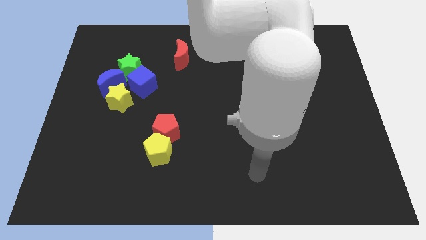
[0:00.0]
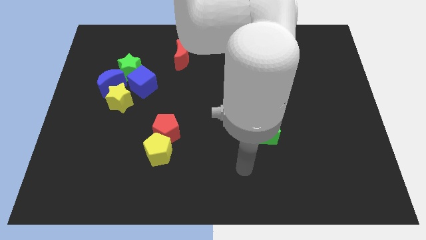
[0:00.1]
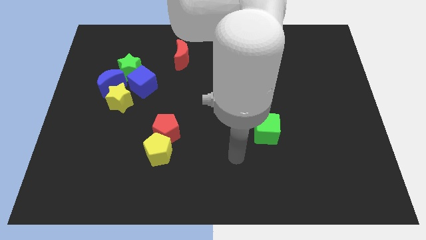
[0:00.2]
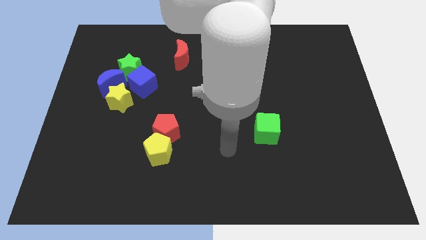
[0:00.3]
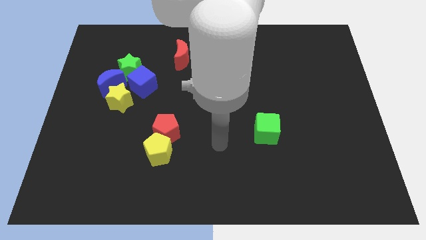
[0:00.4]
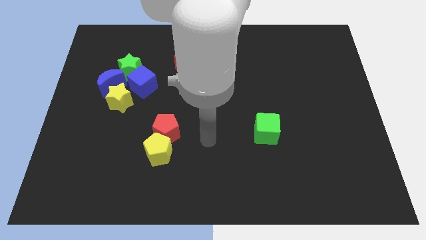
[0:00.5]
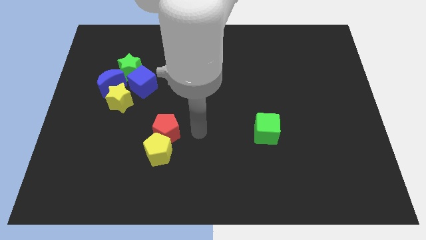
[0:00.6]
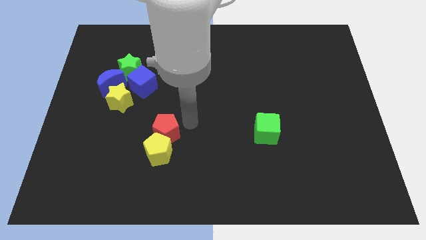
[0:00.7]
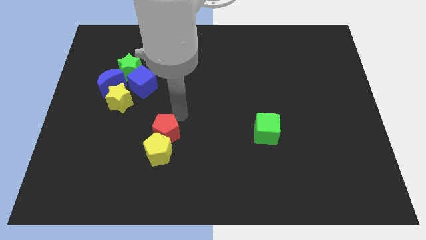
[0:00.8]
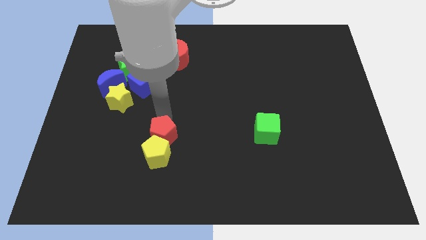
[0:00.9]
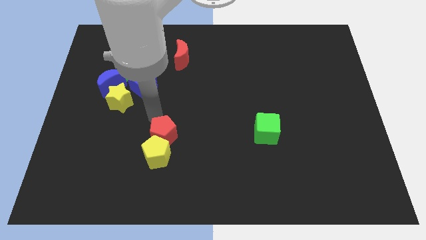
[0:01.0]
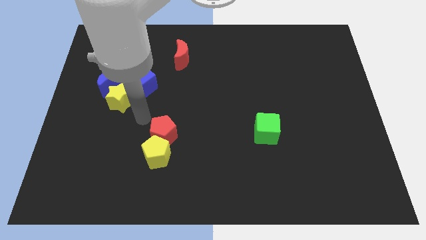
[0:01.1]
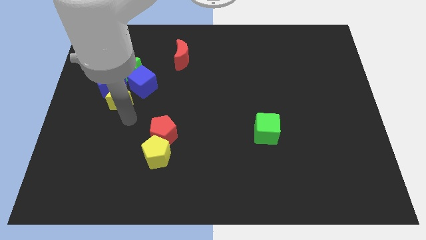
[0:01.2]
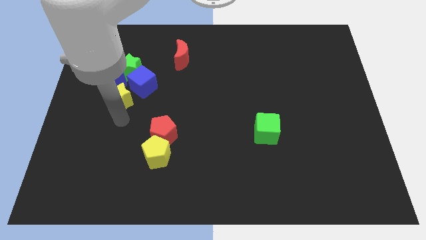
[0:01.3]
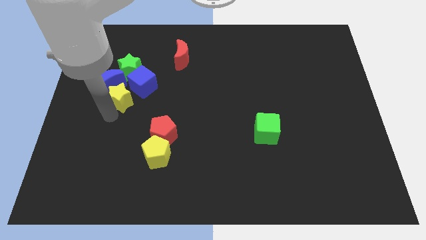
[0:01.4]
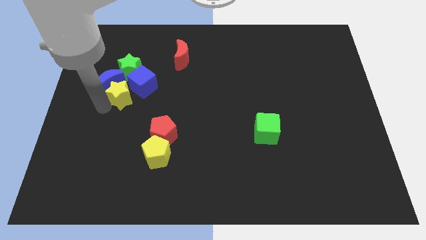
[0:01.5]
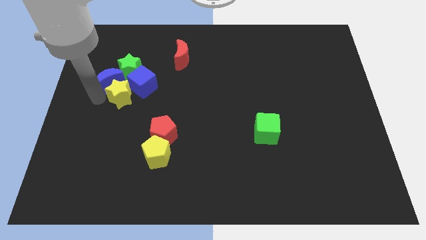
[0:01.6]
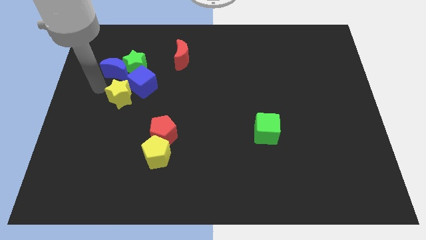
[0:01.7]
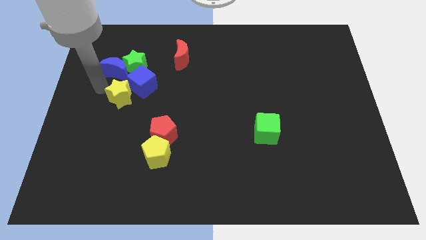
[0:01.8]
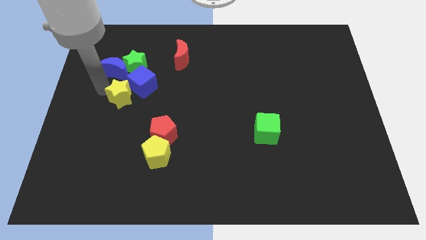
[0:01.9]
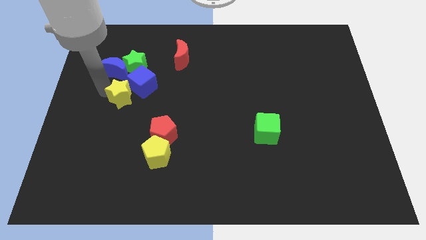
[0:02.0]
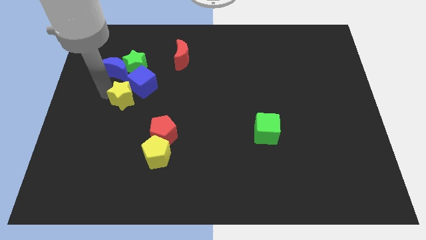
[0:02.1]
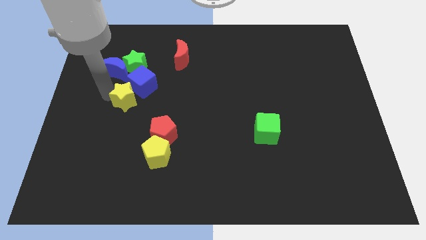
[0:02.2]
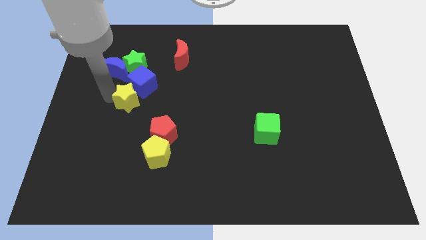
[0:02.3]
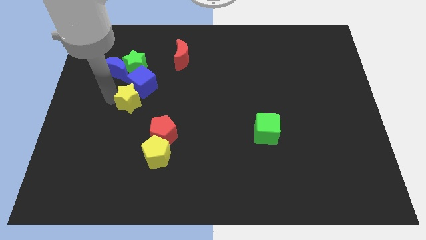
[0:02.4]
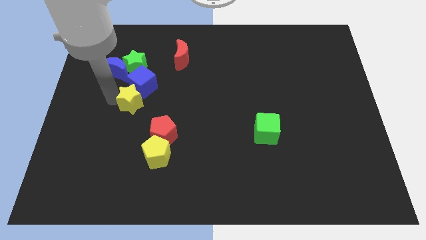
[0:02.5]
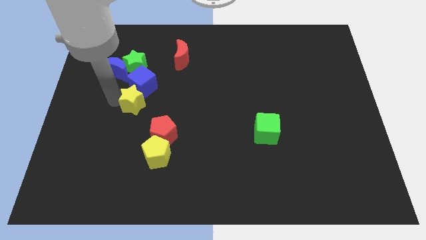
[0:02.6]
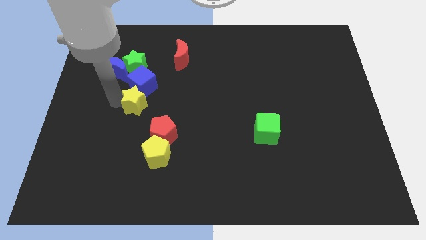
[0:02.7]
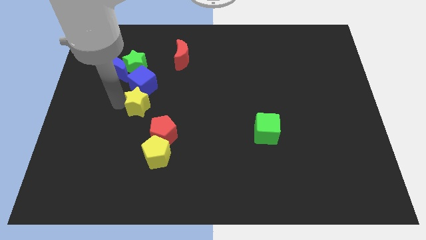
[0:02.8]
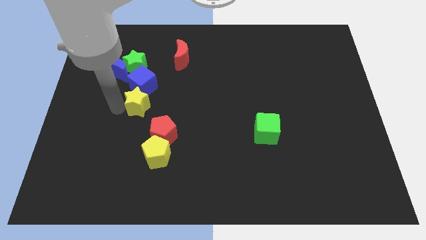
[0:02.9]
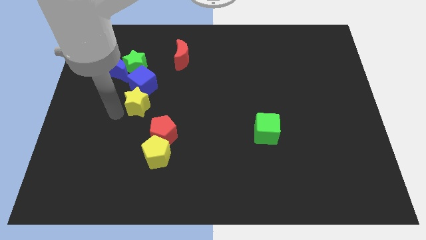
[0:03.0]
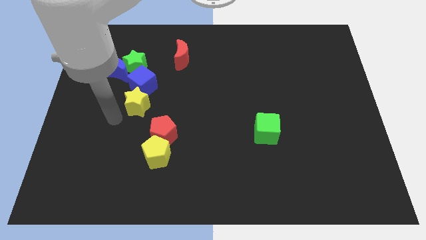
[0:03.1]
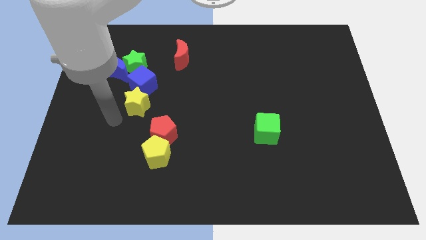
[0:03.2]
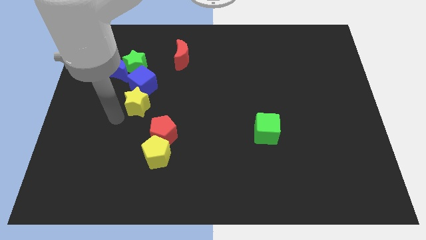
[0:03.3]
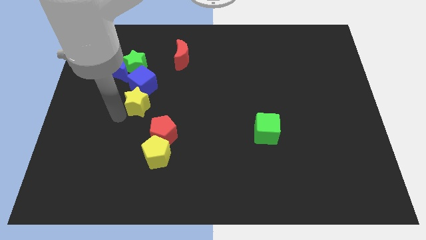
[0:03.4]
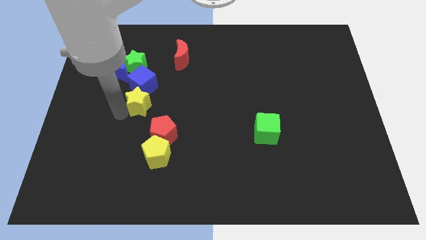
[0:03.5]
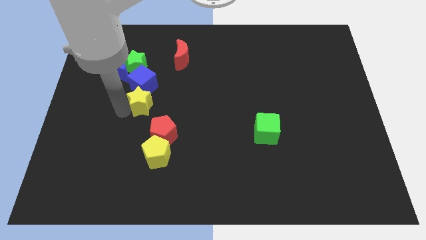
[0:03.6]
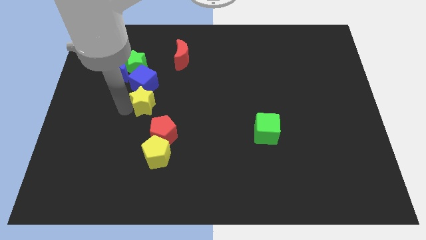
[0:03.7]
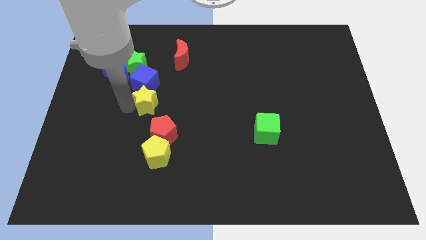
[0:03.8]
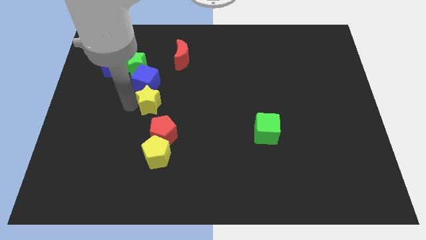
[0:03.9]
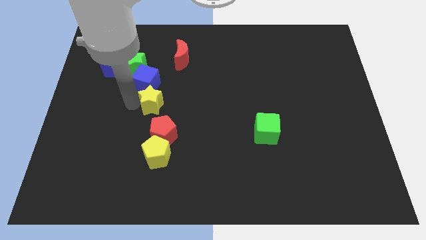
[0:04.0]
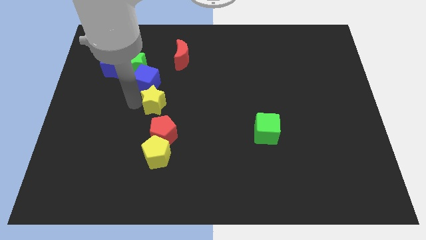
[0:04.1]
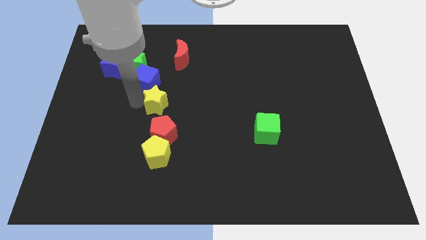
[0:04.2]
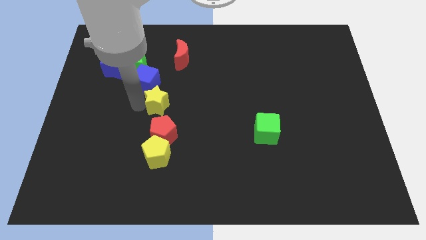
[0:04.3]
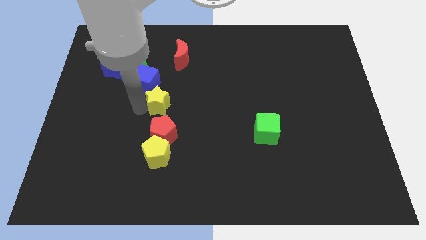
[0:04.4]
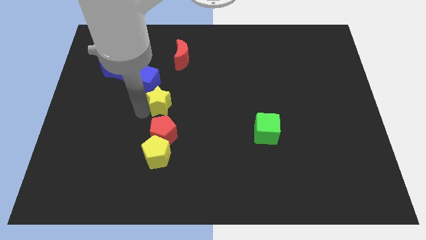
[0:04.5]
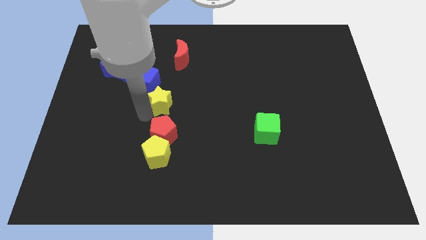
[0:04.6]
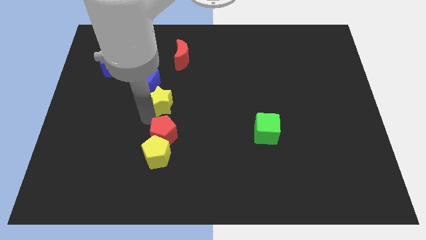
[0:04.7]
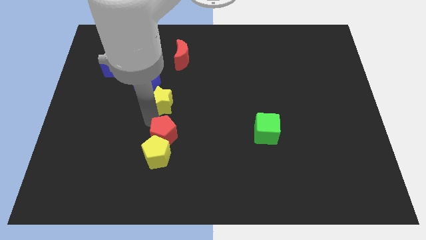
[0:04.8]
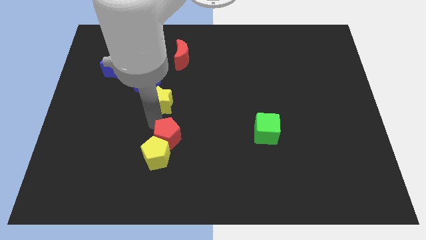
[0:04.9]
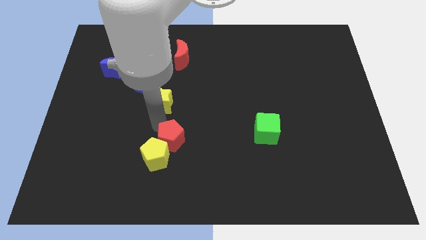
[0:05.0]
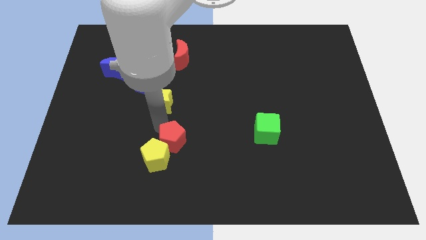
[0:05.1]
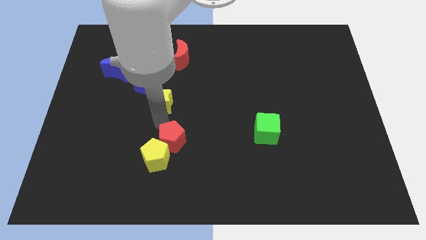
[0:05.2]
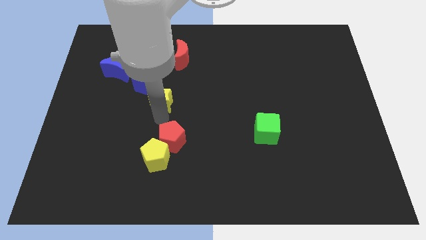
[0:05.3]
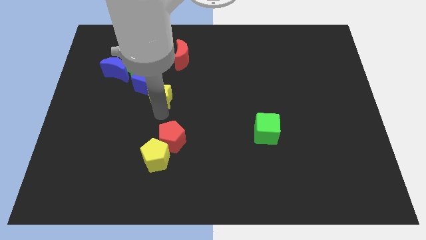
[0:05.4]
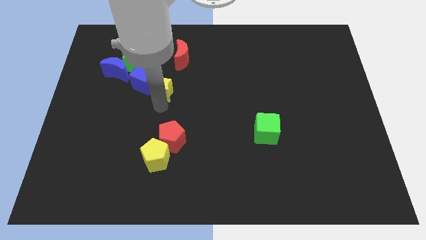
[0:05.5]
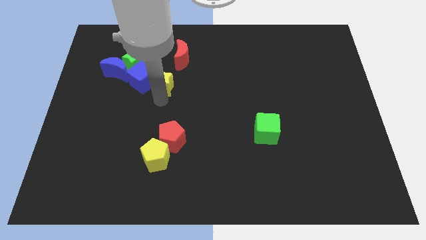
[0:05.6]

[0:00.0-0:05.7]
slide the yellow star diagonally down and to the left of the red moon

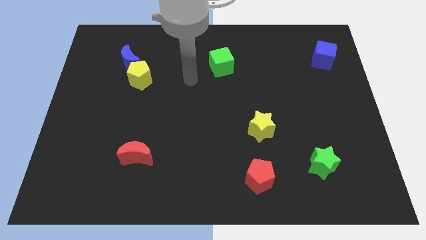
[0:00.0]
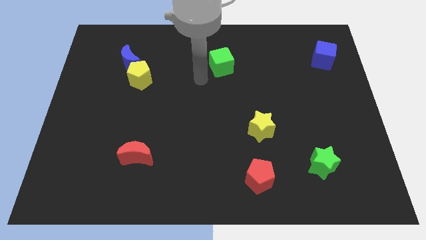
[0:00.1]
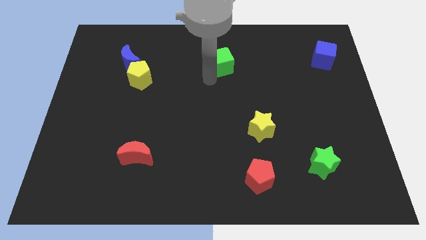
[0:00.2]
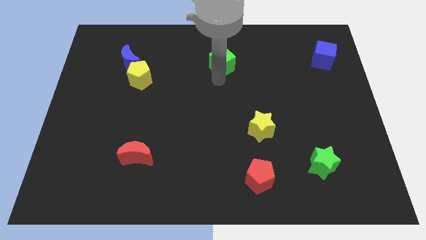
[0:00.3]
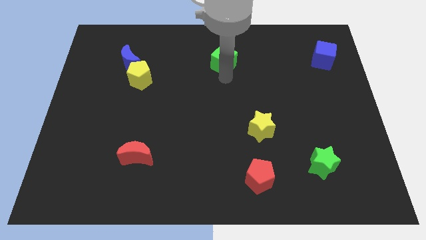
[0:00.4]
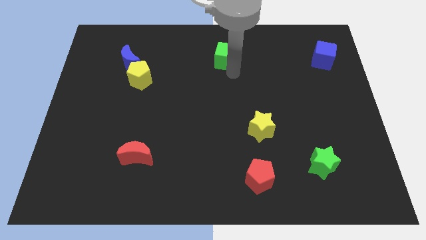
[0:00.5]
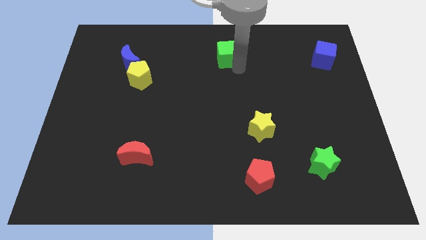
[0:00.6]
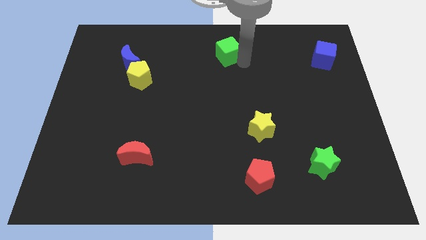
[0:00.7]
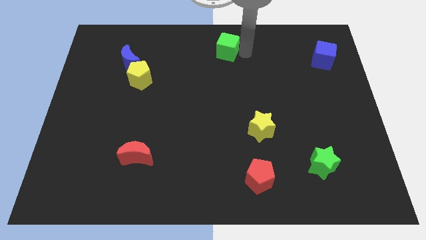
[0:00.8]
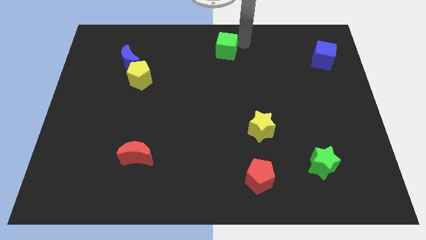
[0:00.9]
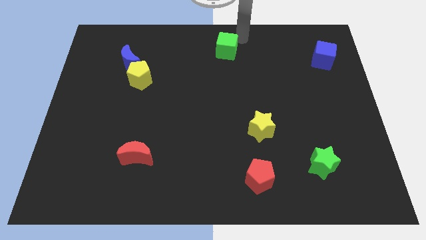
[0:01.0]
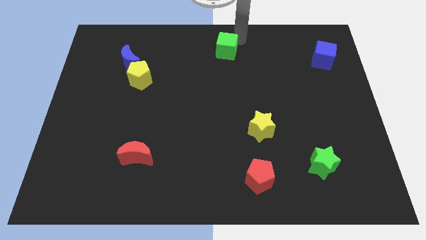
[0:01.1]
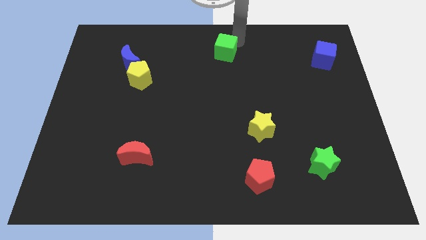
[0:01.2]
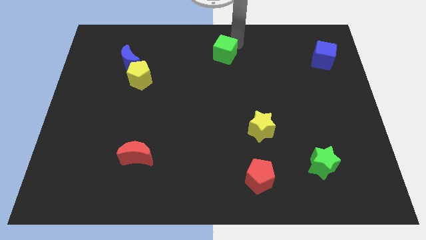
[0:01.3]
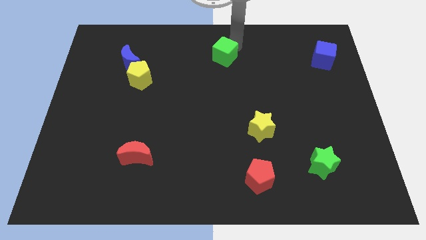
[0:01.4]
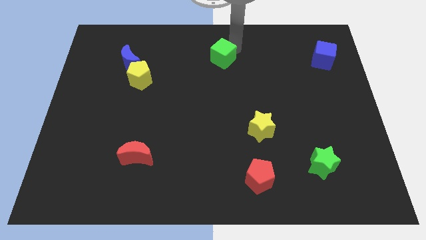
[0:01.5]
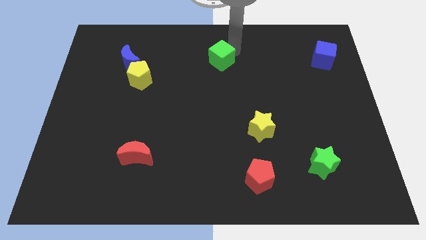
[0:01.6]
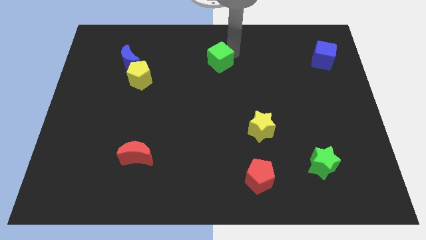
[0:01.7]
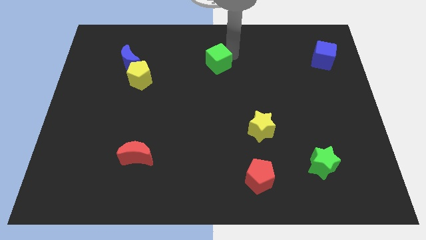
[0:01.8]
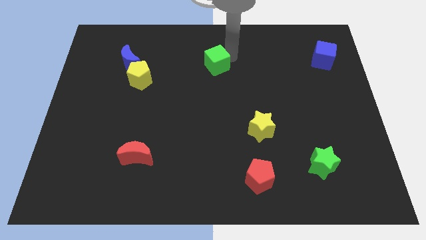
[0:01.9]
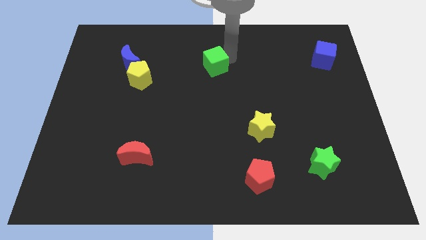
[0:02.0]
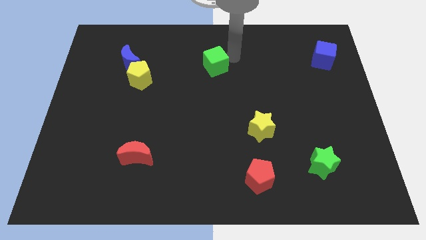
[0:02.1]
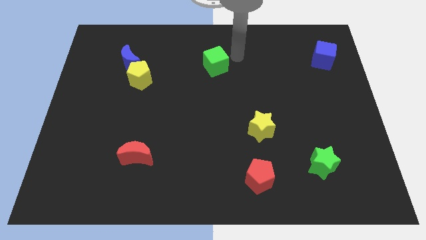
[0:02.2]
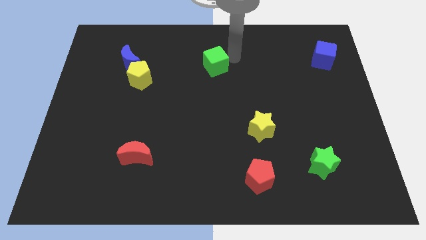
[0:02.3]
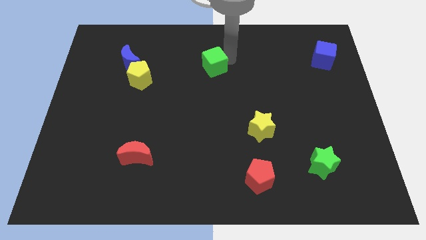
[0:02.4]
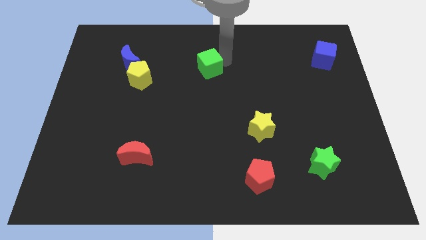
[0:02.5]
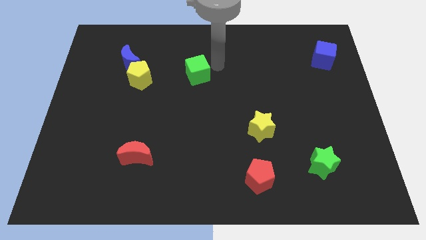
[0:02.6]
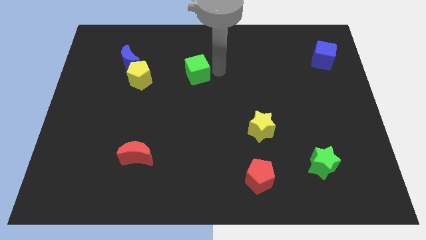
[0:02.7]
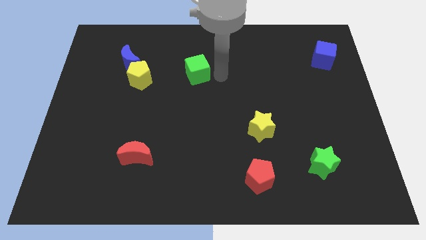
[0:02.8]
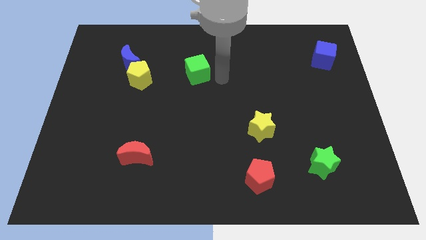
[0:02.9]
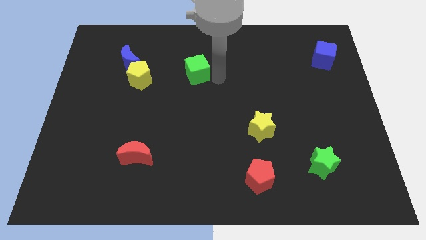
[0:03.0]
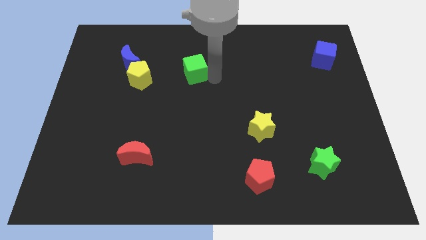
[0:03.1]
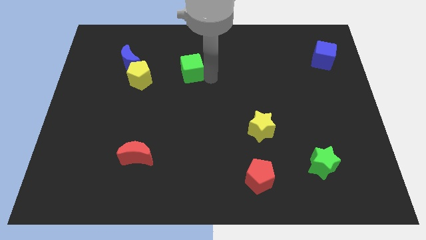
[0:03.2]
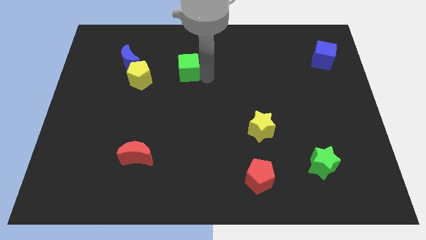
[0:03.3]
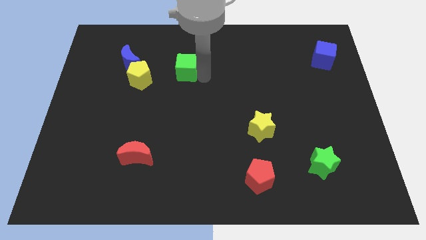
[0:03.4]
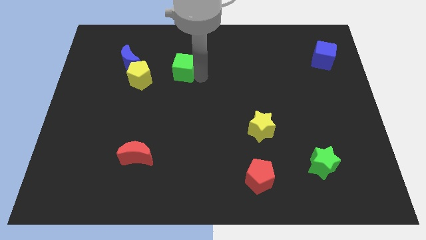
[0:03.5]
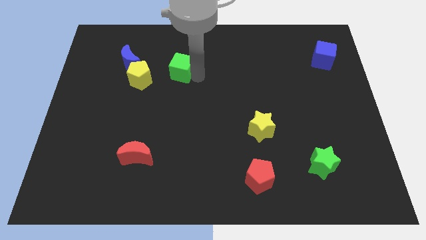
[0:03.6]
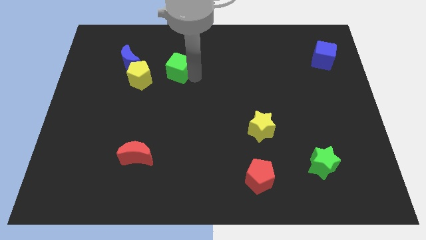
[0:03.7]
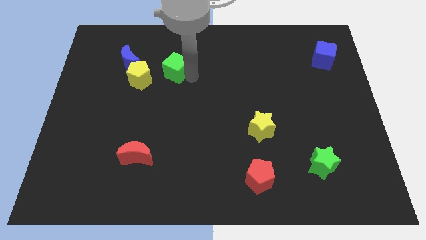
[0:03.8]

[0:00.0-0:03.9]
put the green cube diagonally up and to the right of the yellow pentagon
